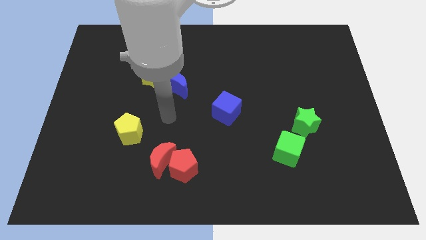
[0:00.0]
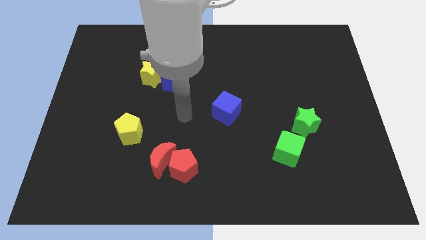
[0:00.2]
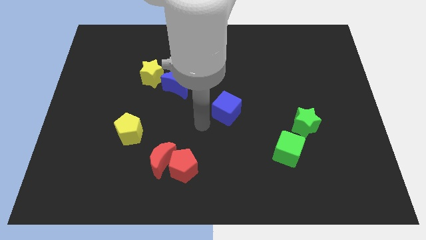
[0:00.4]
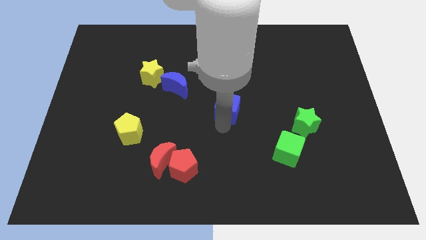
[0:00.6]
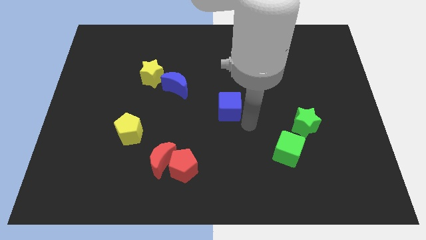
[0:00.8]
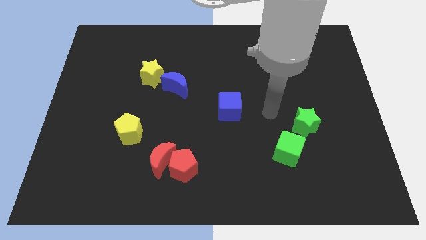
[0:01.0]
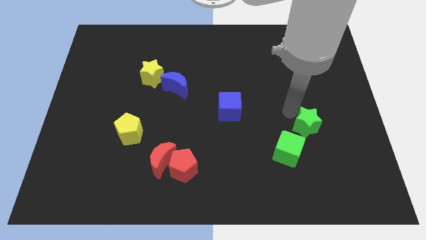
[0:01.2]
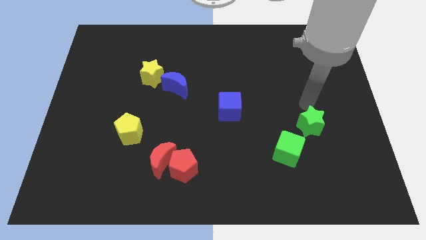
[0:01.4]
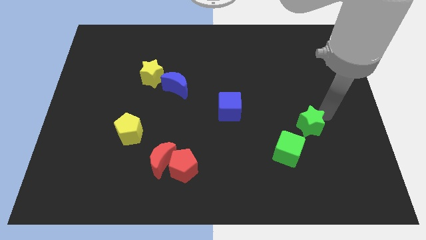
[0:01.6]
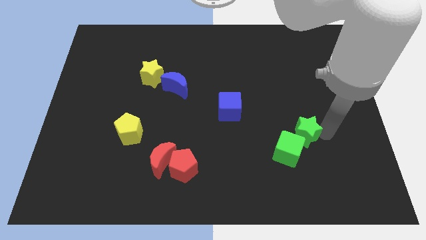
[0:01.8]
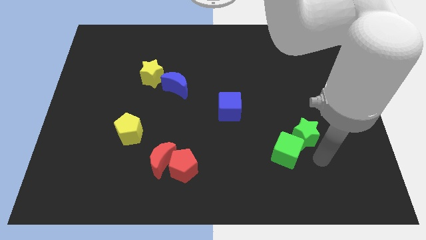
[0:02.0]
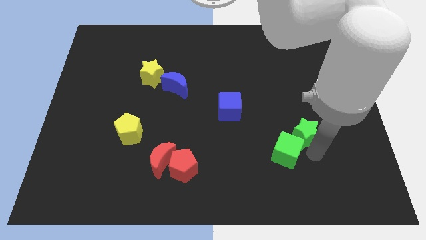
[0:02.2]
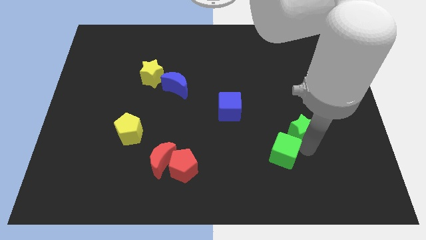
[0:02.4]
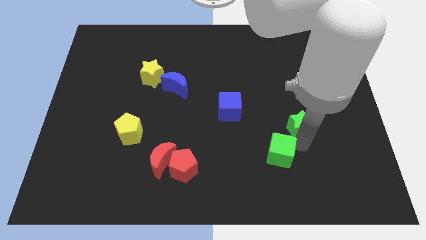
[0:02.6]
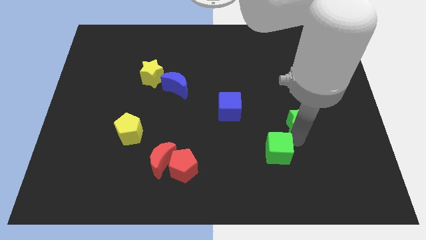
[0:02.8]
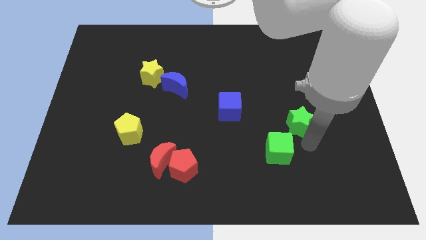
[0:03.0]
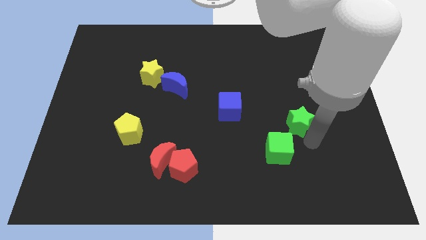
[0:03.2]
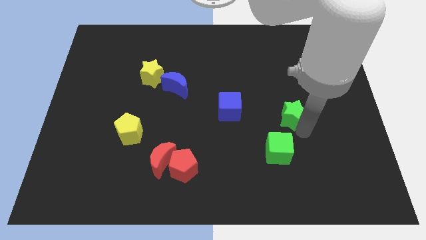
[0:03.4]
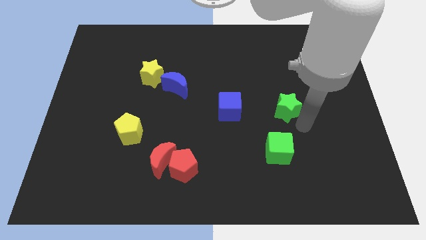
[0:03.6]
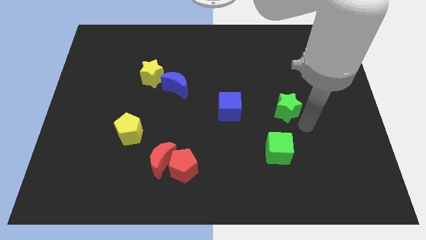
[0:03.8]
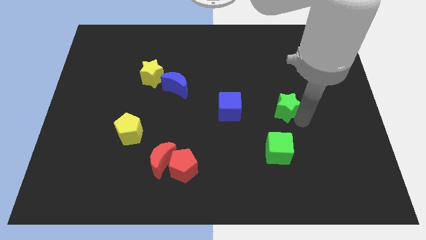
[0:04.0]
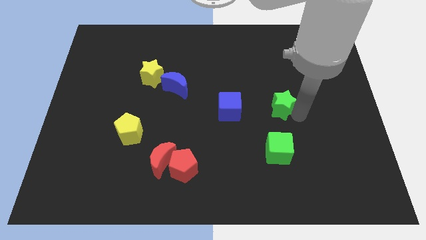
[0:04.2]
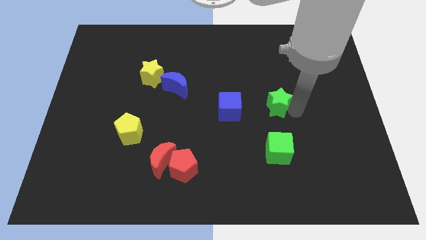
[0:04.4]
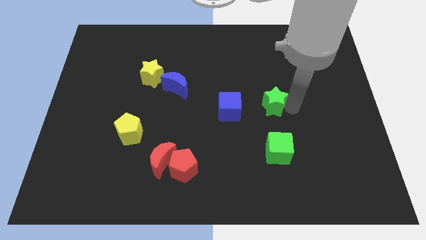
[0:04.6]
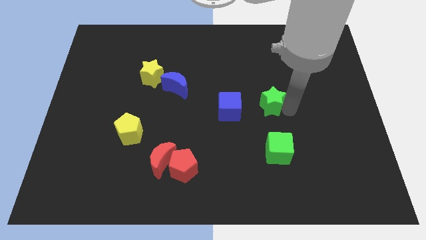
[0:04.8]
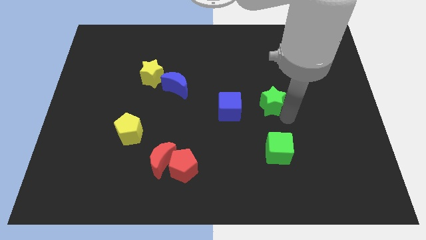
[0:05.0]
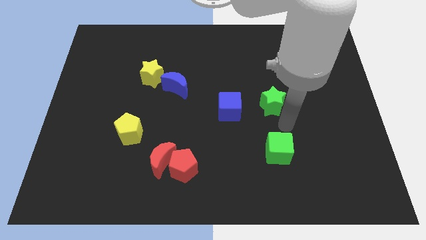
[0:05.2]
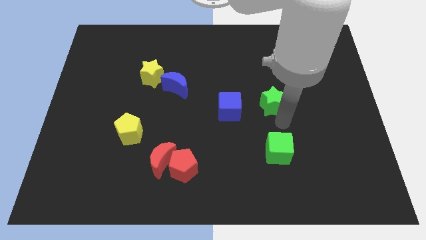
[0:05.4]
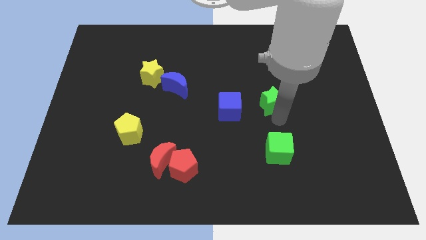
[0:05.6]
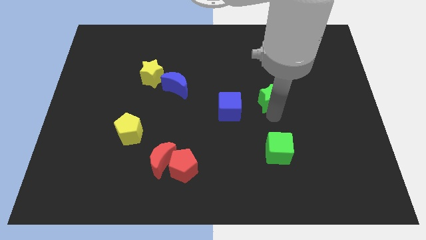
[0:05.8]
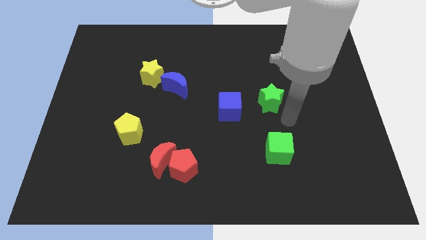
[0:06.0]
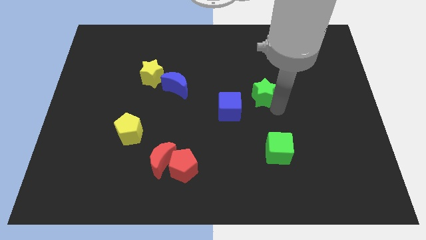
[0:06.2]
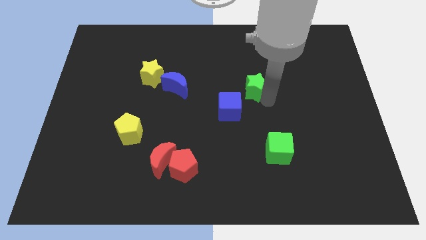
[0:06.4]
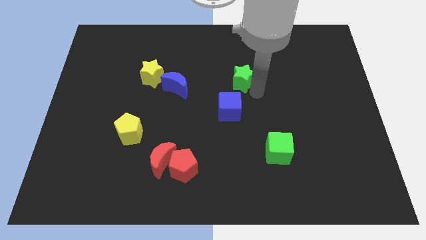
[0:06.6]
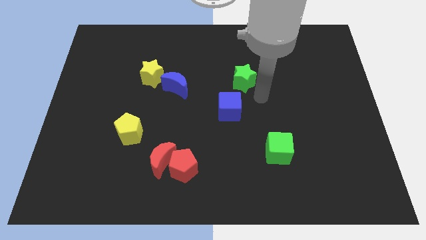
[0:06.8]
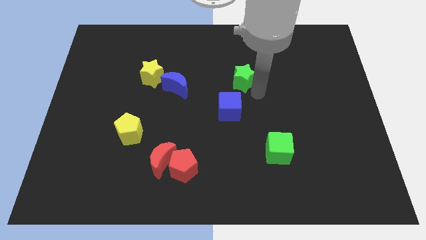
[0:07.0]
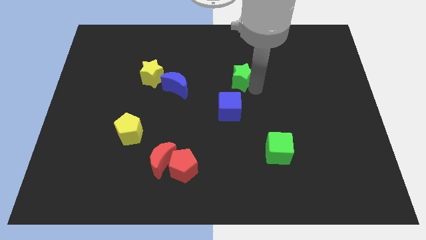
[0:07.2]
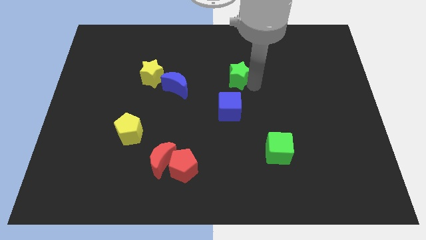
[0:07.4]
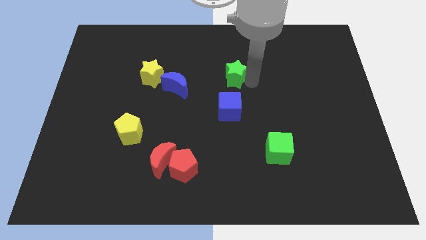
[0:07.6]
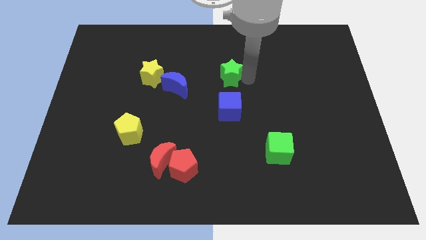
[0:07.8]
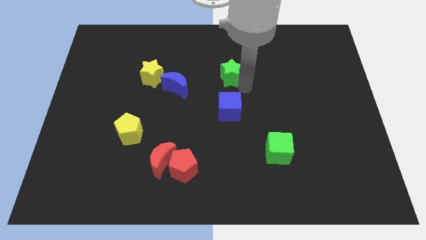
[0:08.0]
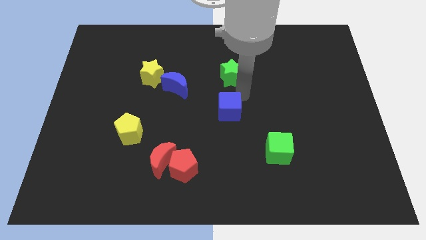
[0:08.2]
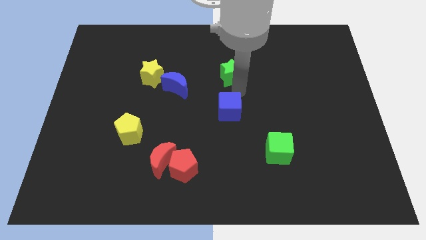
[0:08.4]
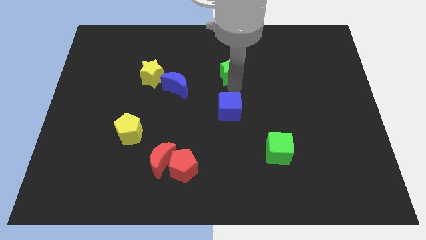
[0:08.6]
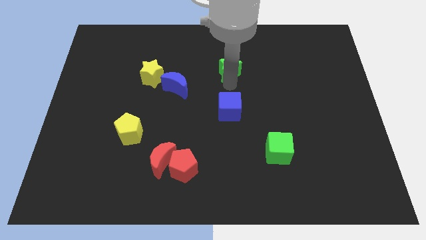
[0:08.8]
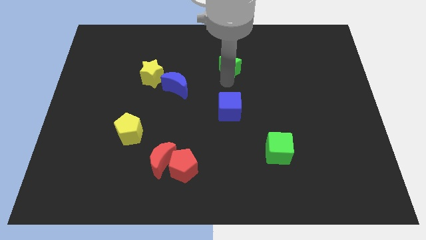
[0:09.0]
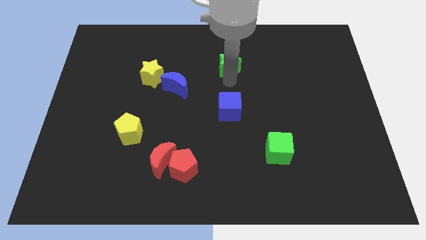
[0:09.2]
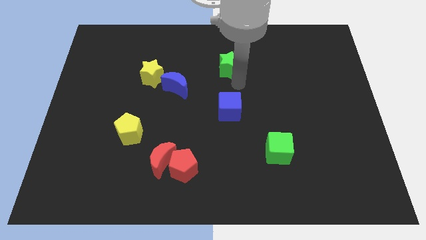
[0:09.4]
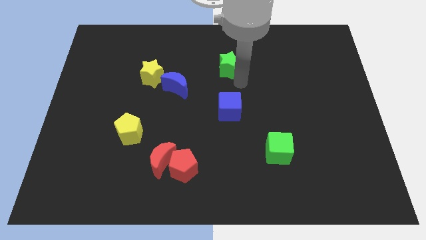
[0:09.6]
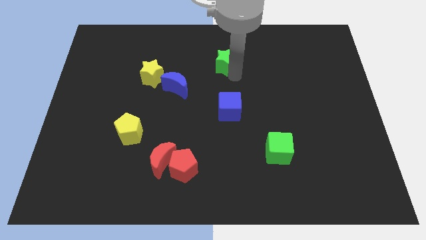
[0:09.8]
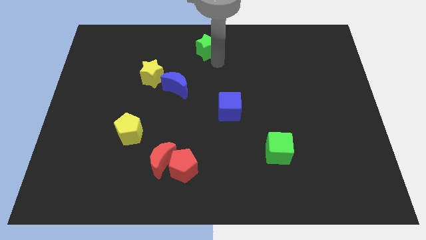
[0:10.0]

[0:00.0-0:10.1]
slide the green star to the towards your base

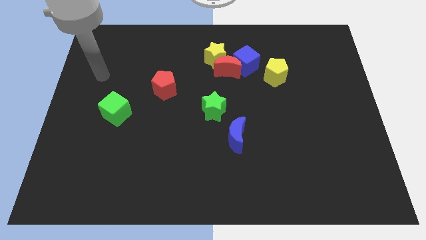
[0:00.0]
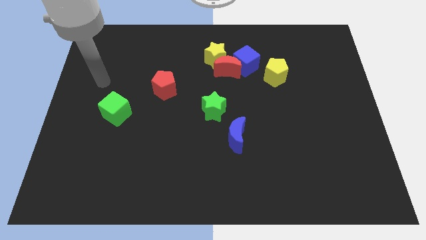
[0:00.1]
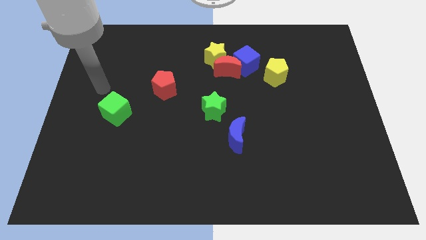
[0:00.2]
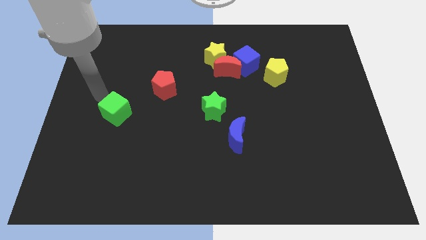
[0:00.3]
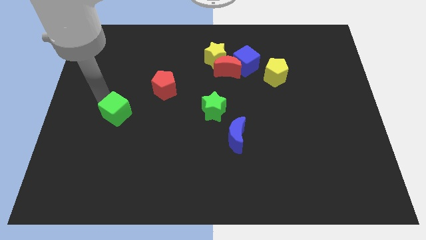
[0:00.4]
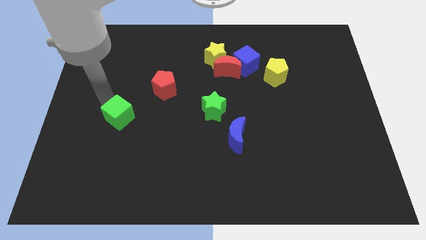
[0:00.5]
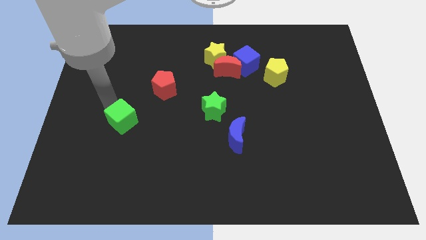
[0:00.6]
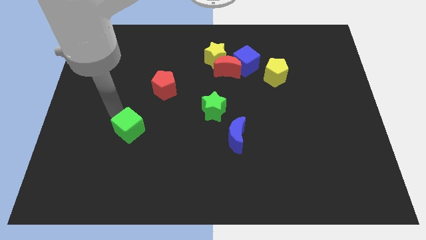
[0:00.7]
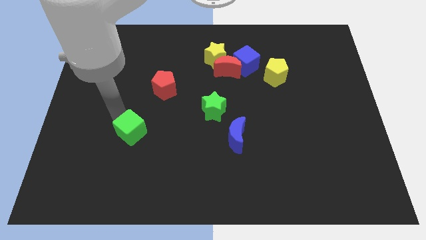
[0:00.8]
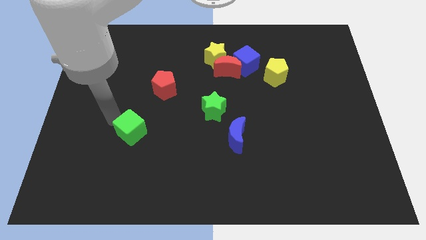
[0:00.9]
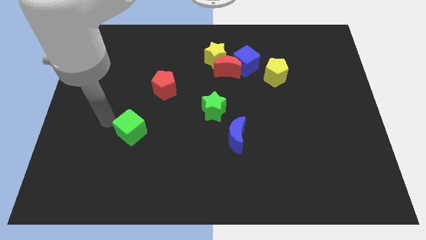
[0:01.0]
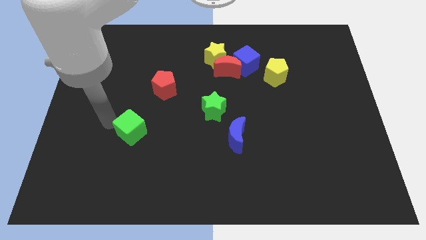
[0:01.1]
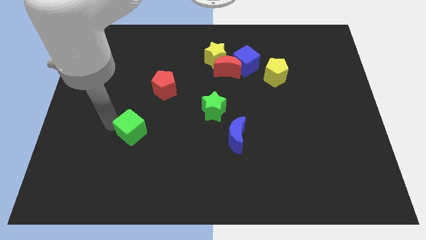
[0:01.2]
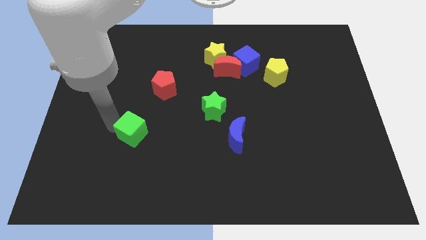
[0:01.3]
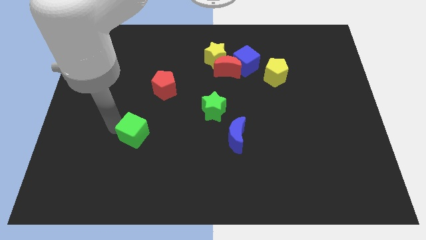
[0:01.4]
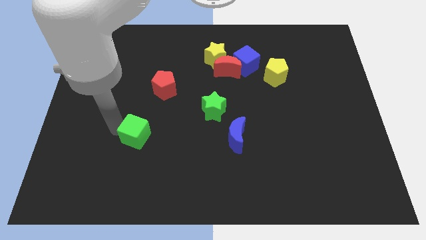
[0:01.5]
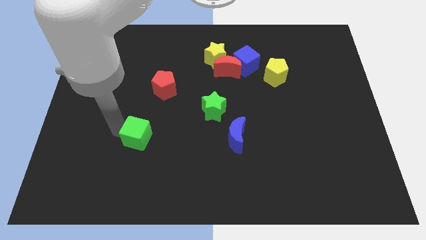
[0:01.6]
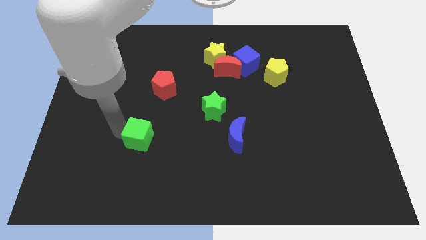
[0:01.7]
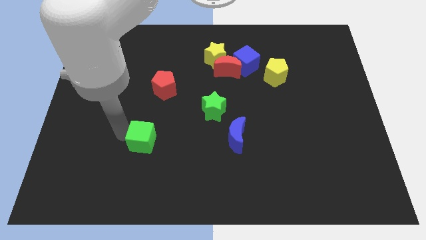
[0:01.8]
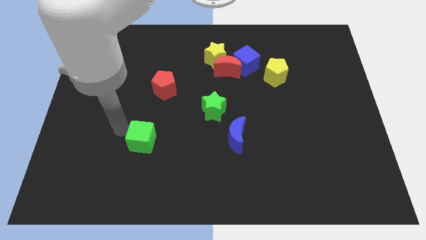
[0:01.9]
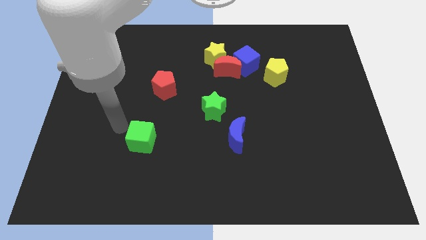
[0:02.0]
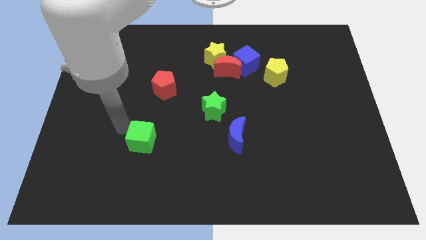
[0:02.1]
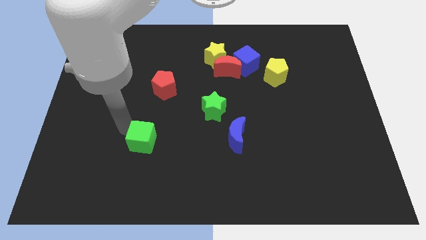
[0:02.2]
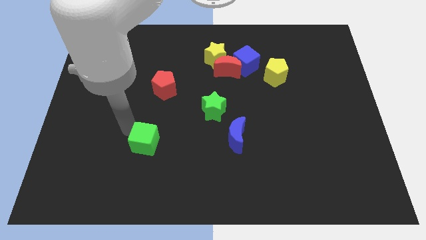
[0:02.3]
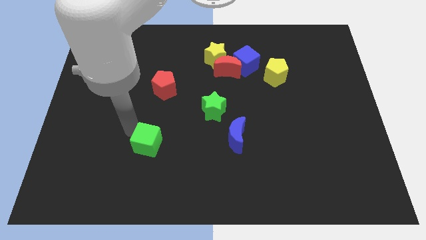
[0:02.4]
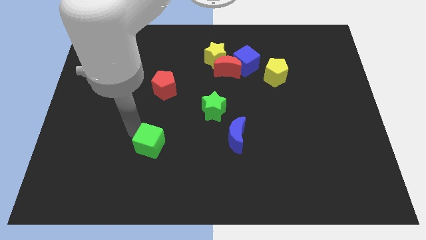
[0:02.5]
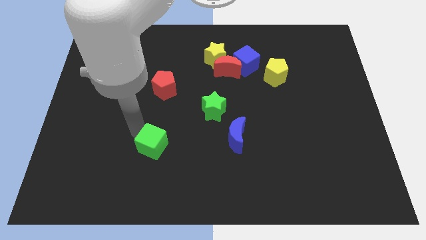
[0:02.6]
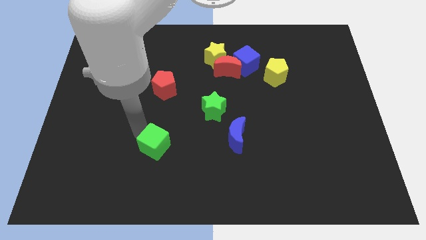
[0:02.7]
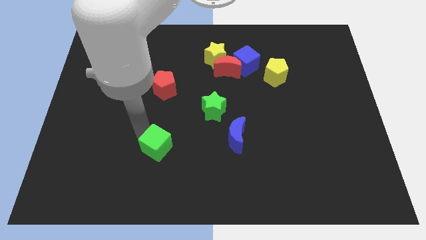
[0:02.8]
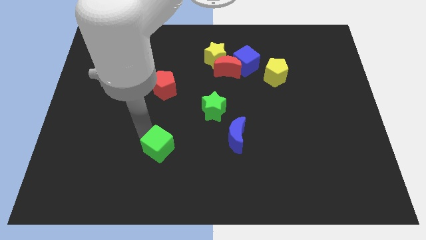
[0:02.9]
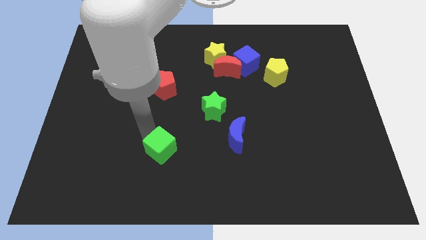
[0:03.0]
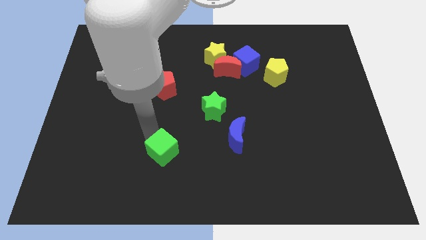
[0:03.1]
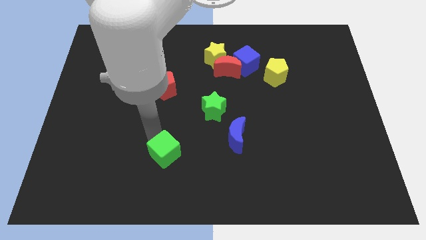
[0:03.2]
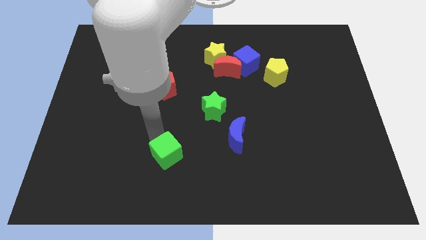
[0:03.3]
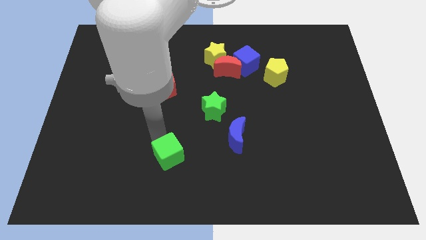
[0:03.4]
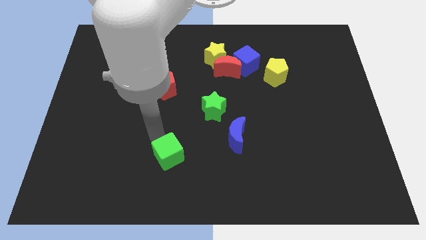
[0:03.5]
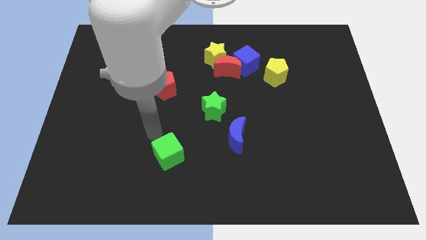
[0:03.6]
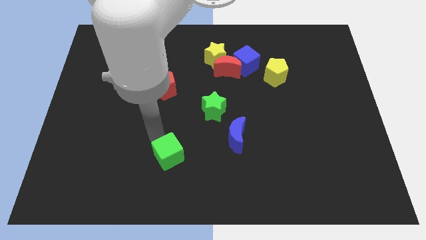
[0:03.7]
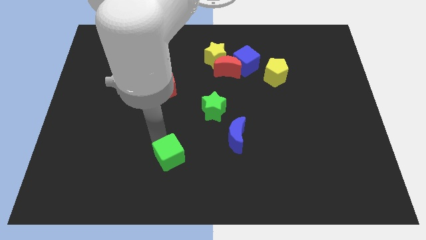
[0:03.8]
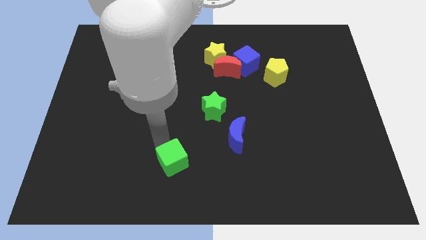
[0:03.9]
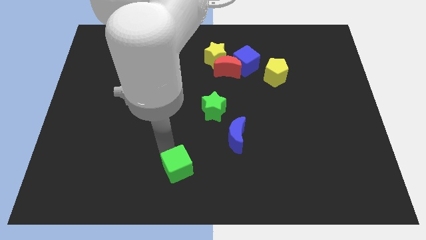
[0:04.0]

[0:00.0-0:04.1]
slide the green cube to the bottom side
